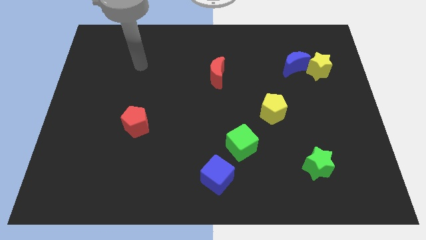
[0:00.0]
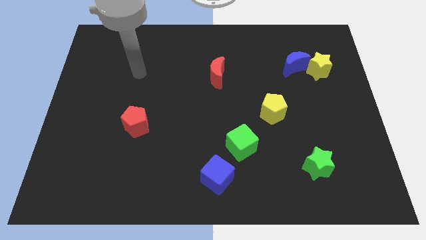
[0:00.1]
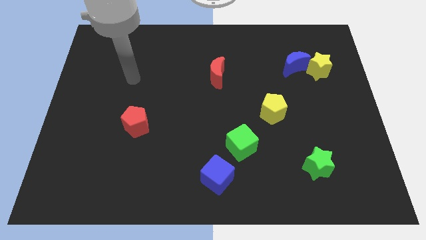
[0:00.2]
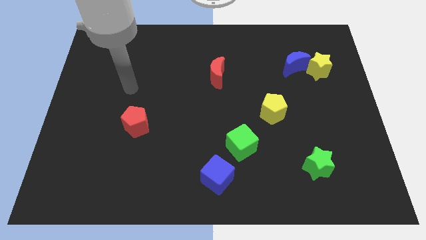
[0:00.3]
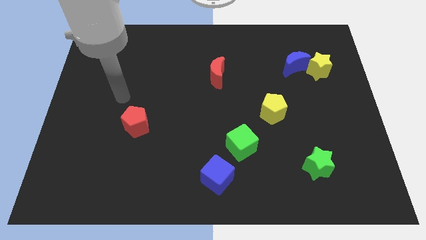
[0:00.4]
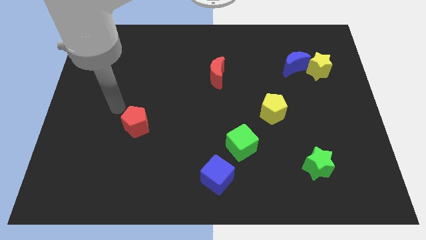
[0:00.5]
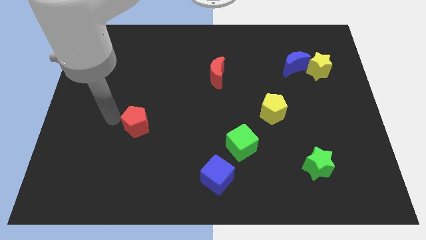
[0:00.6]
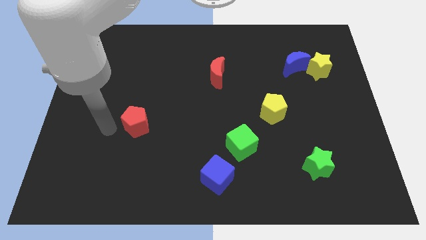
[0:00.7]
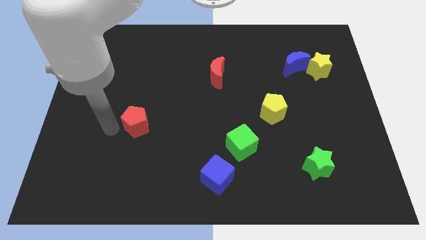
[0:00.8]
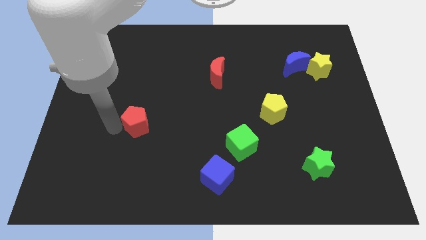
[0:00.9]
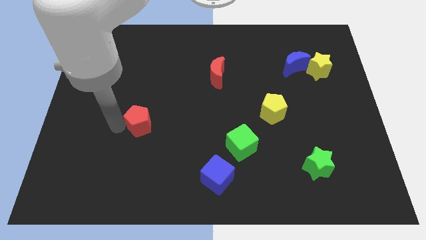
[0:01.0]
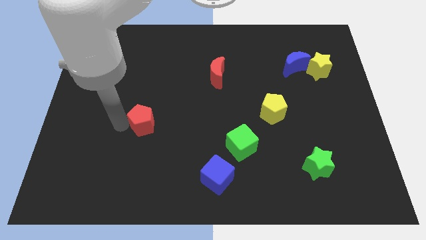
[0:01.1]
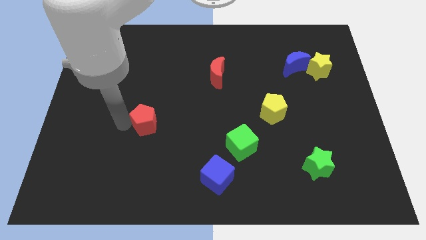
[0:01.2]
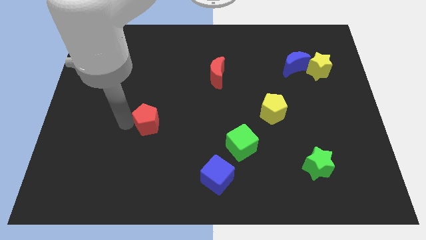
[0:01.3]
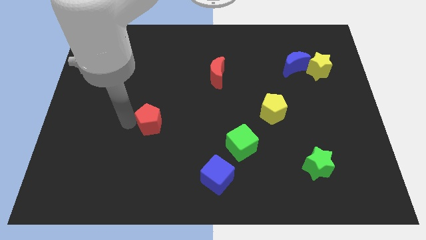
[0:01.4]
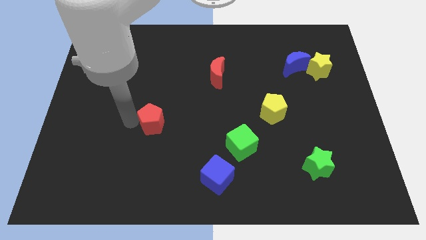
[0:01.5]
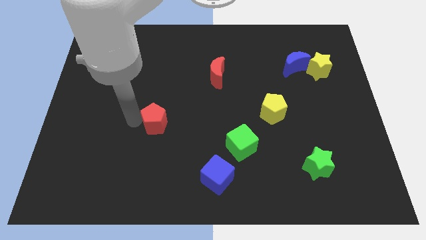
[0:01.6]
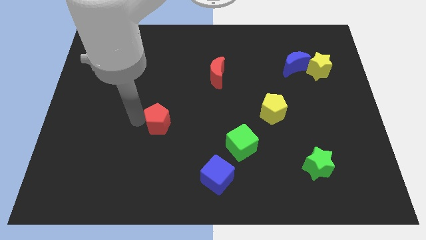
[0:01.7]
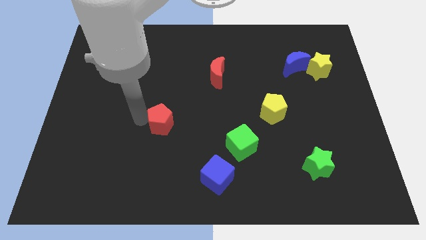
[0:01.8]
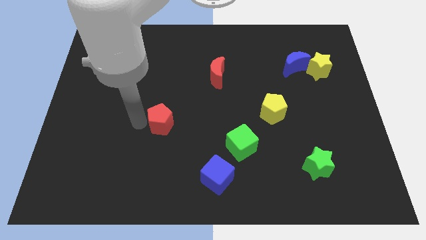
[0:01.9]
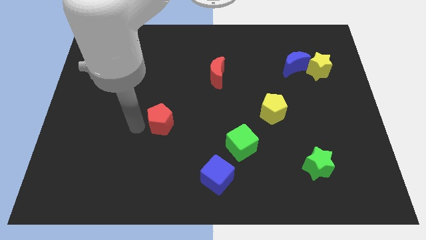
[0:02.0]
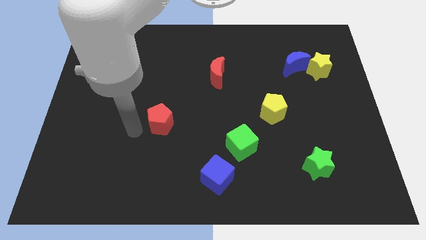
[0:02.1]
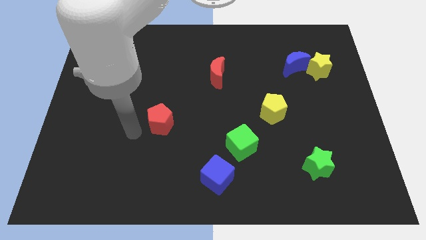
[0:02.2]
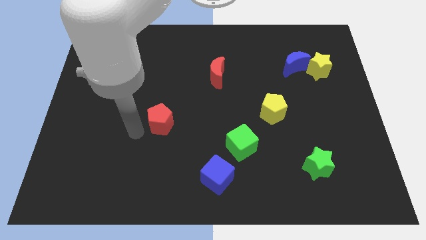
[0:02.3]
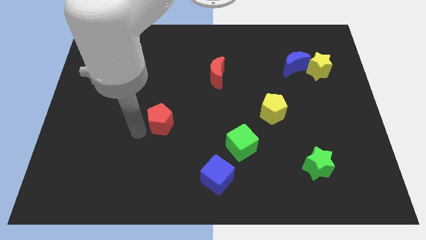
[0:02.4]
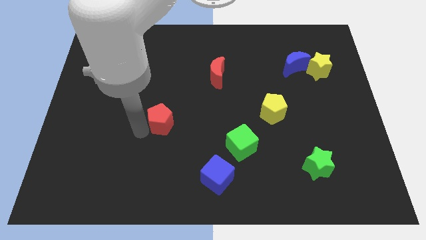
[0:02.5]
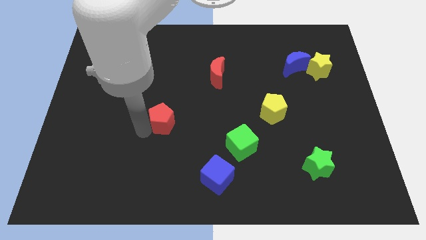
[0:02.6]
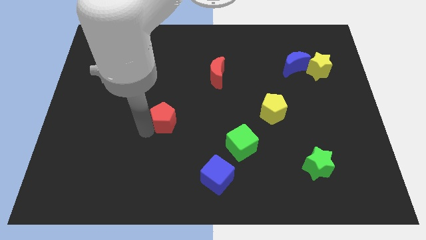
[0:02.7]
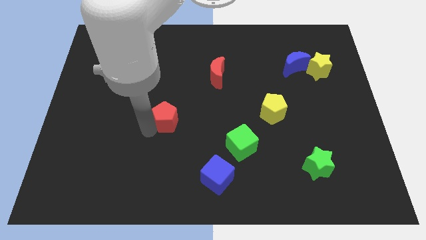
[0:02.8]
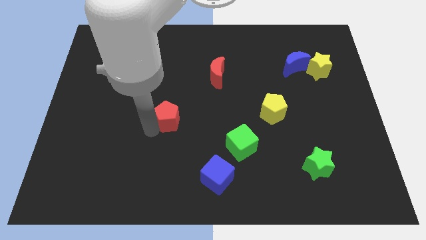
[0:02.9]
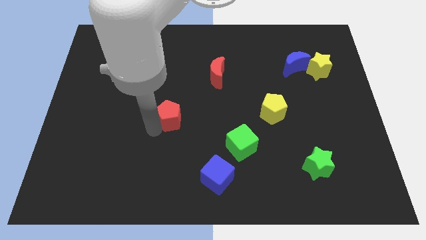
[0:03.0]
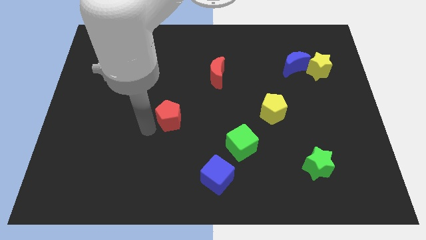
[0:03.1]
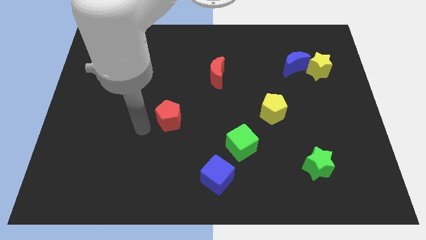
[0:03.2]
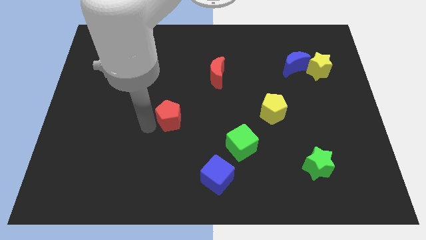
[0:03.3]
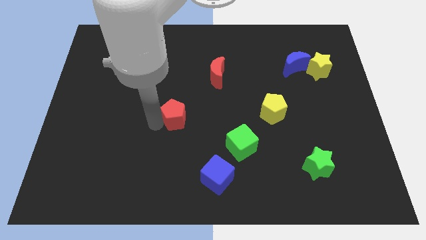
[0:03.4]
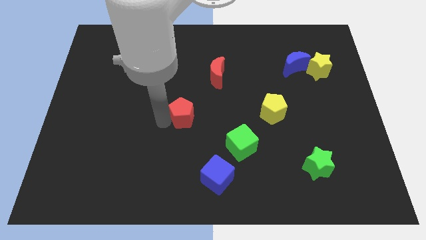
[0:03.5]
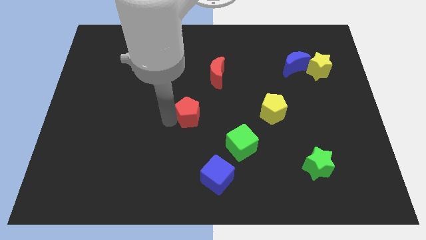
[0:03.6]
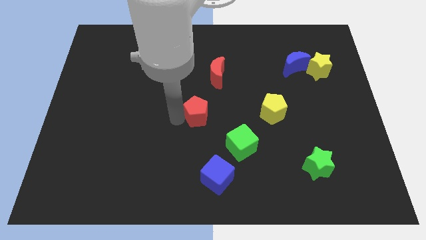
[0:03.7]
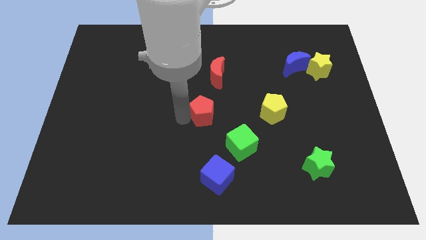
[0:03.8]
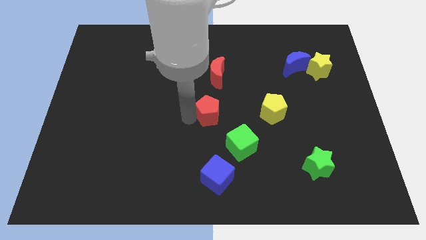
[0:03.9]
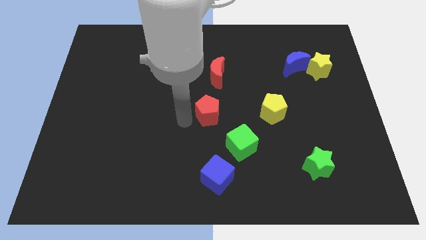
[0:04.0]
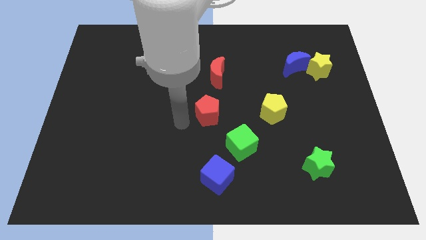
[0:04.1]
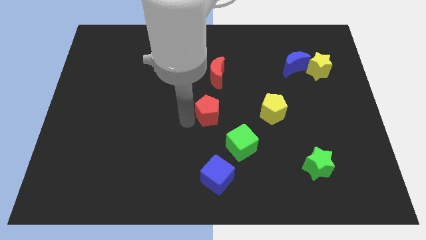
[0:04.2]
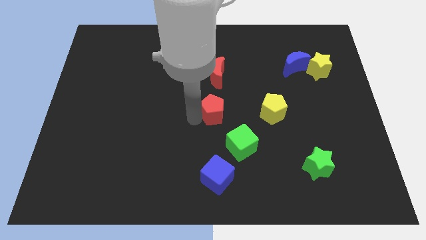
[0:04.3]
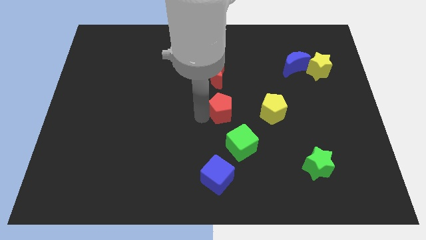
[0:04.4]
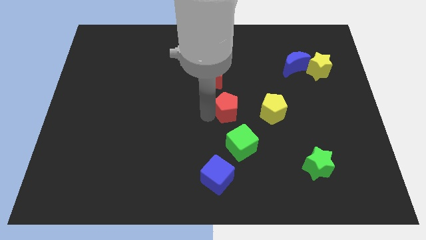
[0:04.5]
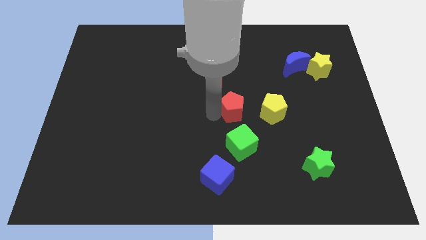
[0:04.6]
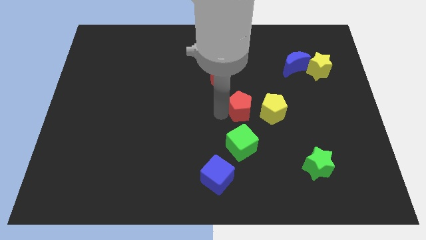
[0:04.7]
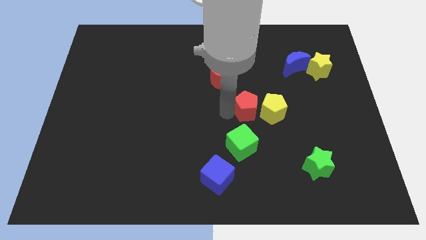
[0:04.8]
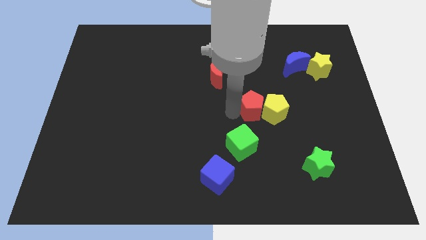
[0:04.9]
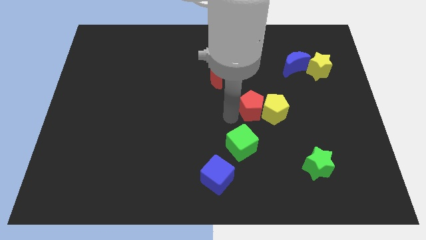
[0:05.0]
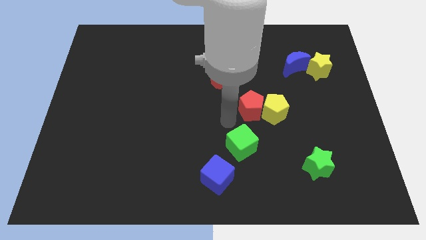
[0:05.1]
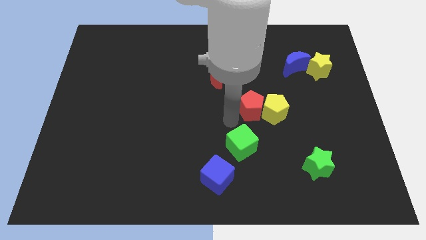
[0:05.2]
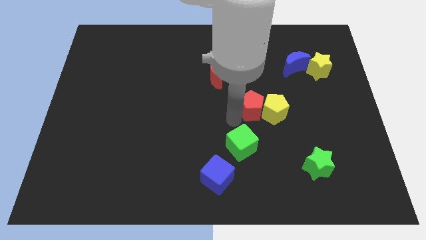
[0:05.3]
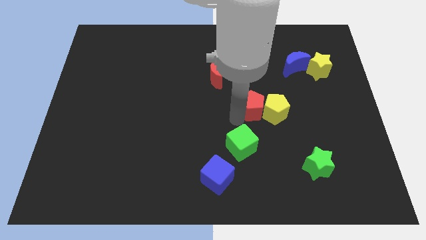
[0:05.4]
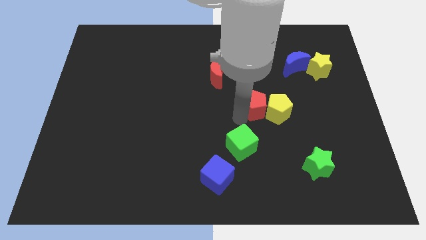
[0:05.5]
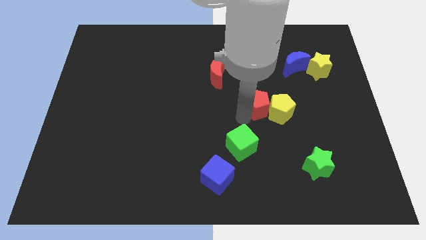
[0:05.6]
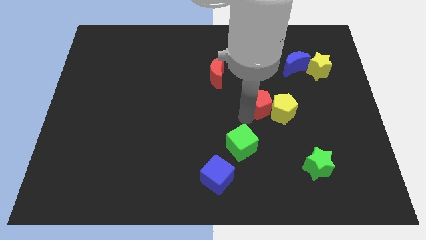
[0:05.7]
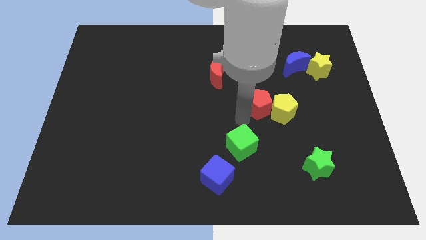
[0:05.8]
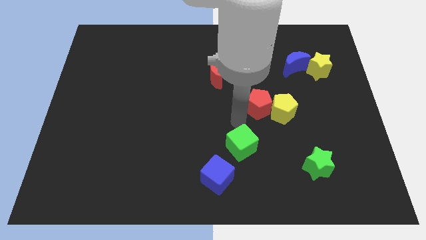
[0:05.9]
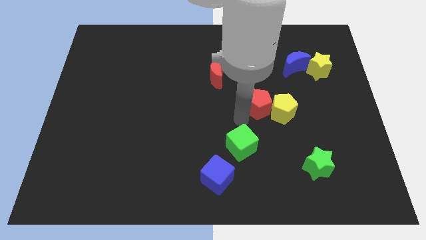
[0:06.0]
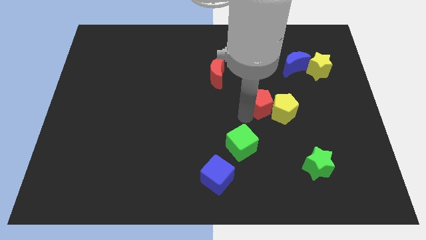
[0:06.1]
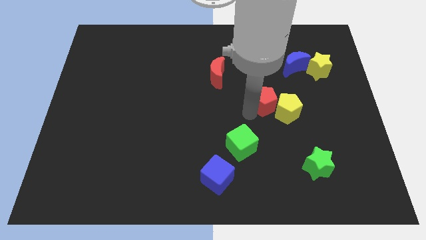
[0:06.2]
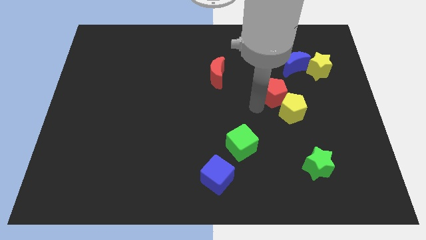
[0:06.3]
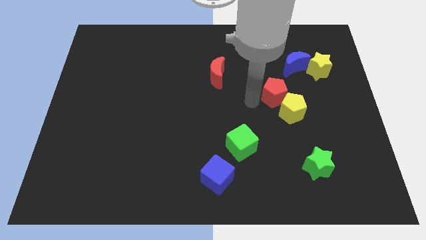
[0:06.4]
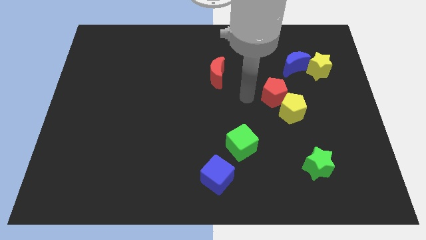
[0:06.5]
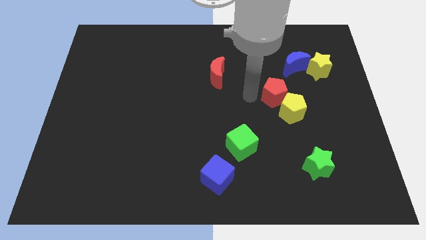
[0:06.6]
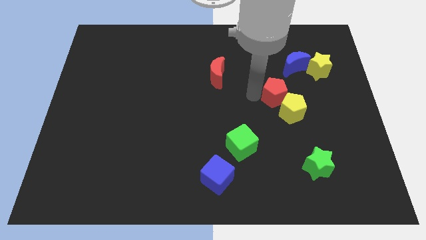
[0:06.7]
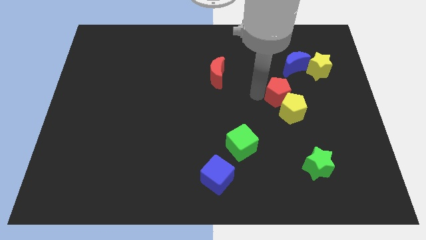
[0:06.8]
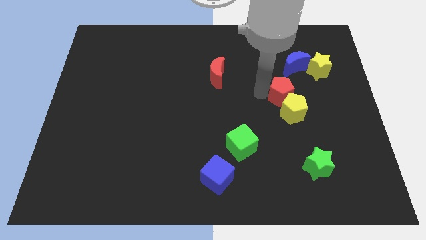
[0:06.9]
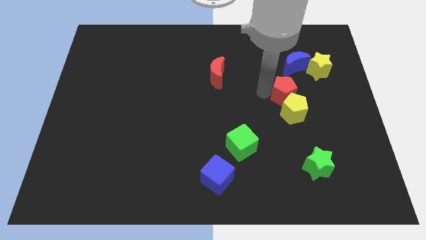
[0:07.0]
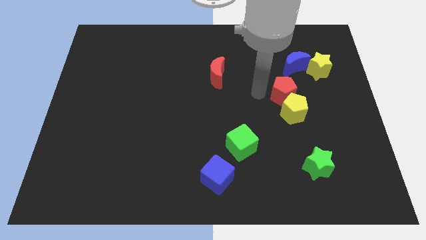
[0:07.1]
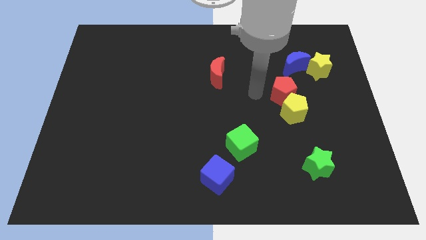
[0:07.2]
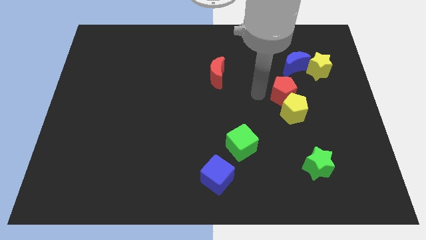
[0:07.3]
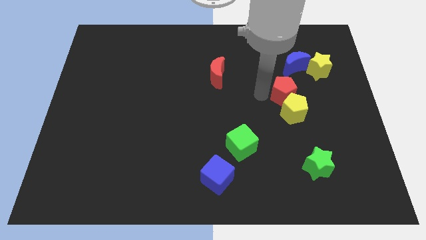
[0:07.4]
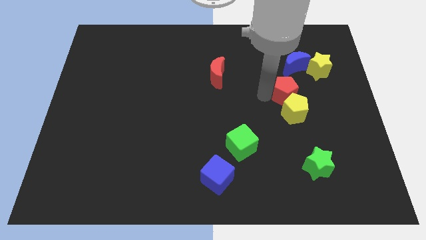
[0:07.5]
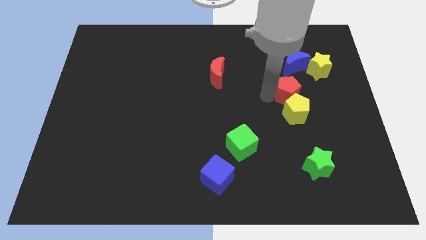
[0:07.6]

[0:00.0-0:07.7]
slide the red pentagon to the top right of the yellow pentagon
